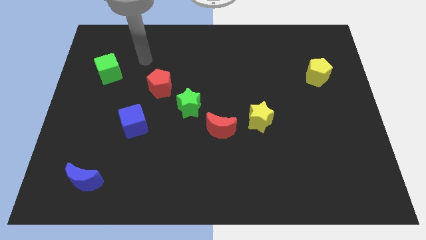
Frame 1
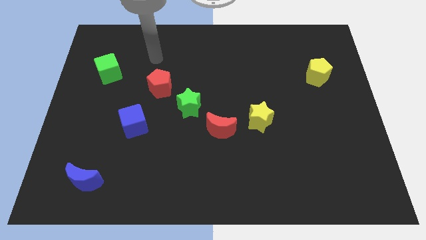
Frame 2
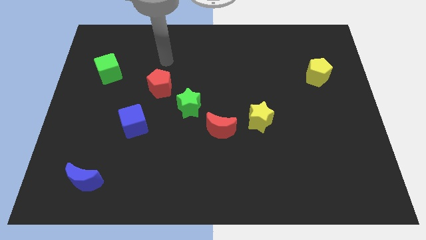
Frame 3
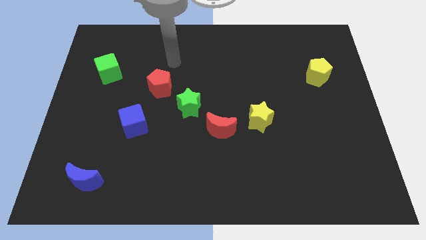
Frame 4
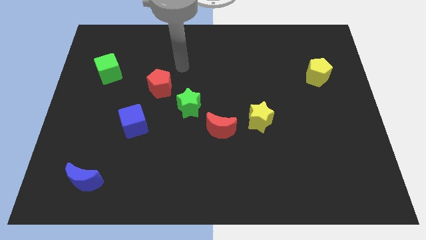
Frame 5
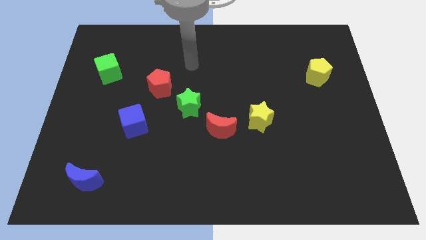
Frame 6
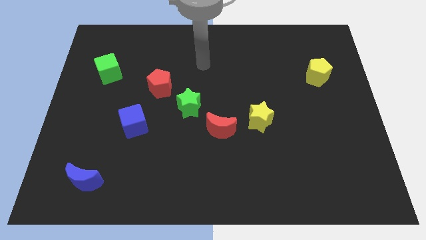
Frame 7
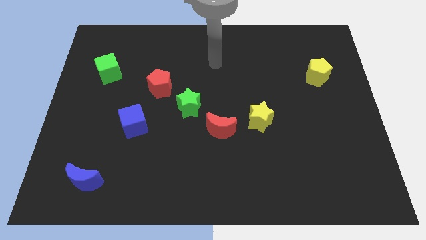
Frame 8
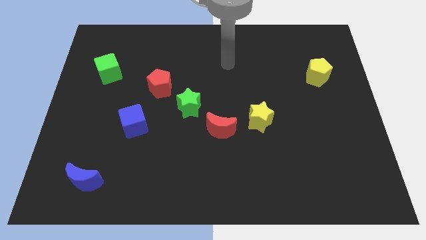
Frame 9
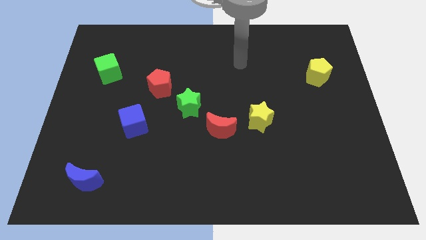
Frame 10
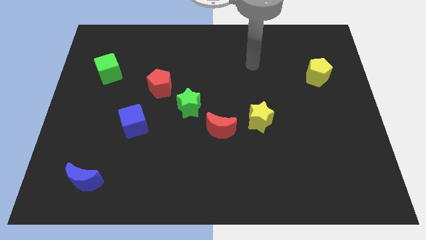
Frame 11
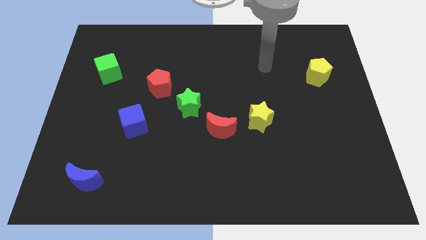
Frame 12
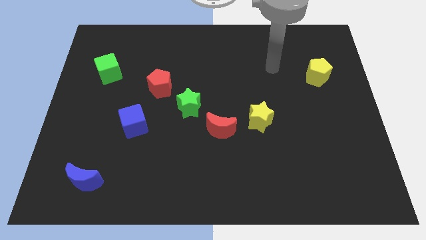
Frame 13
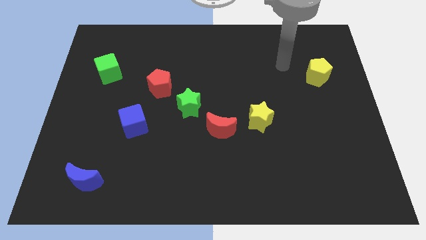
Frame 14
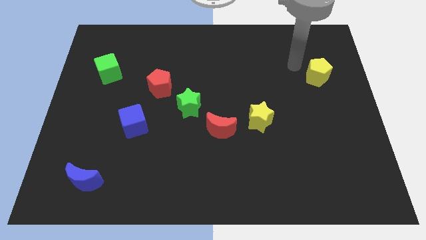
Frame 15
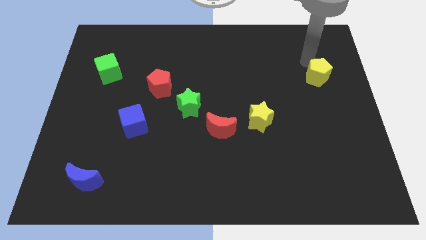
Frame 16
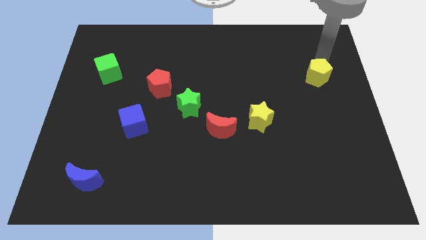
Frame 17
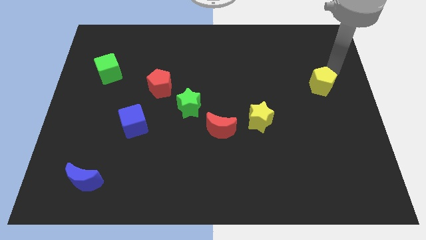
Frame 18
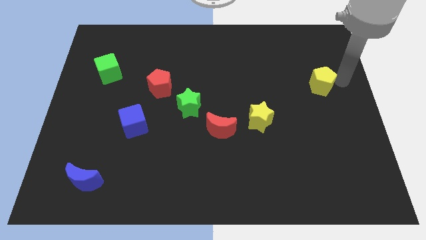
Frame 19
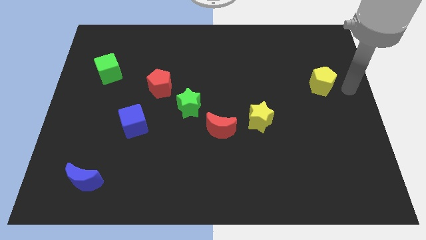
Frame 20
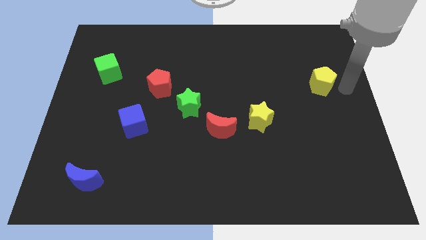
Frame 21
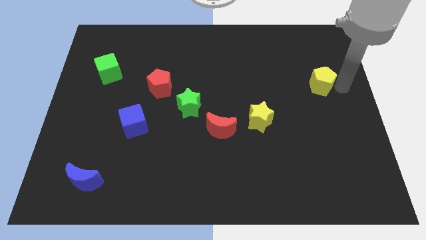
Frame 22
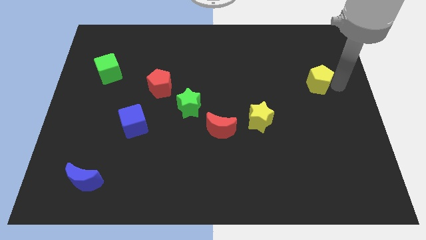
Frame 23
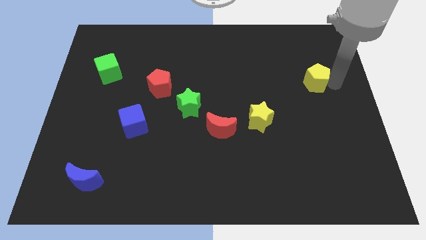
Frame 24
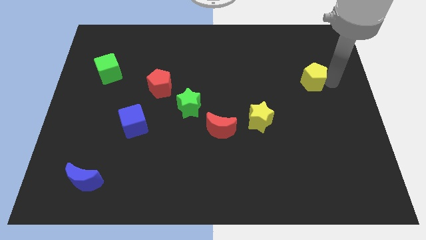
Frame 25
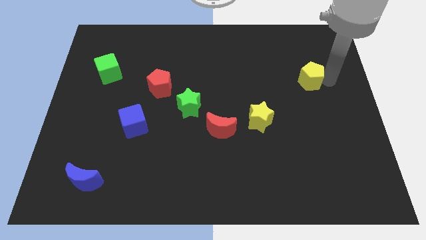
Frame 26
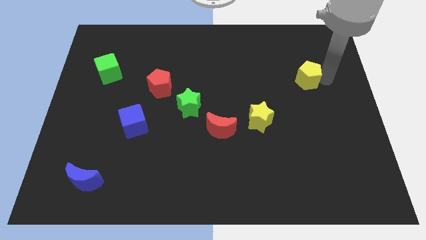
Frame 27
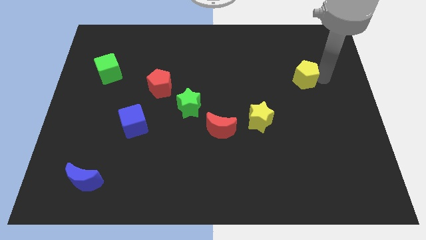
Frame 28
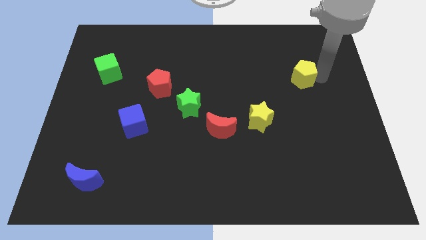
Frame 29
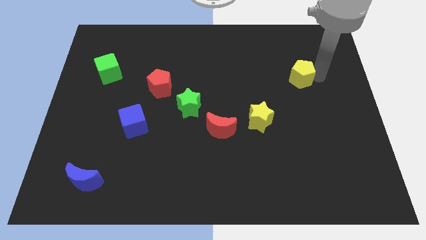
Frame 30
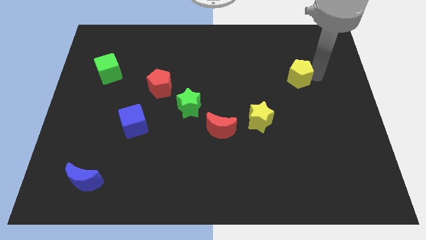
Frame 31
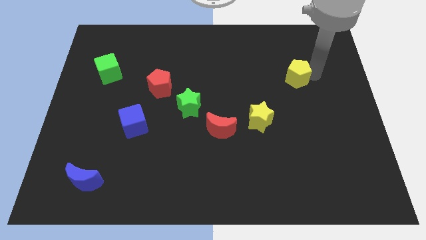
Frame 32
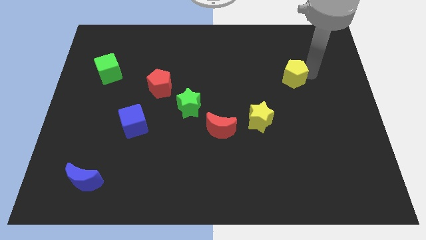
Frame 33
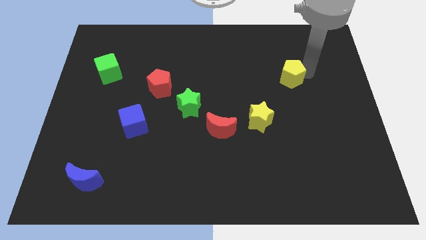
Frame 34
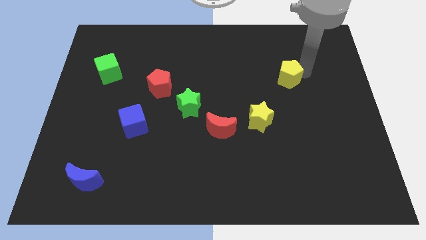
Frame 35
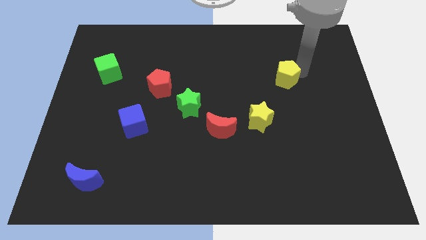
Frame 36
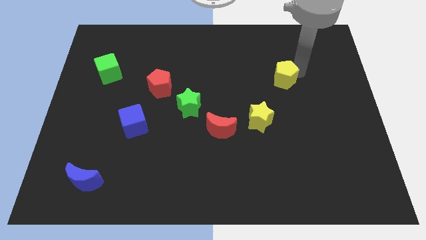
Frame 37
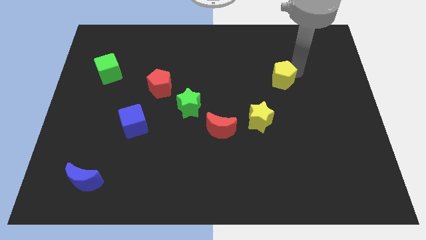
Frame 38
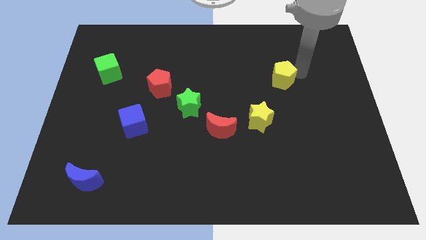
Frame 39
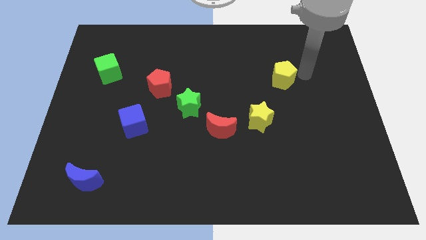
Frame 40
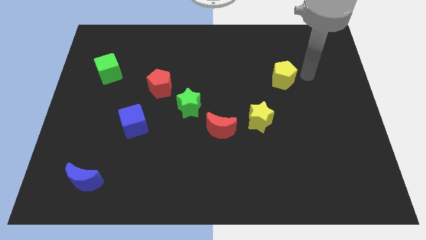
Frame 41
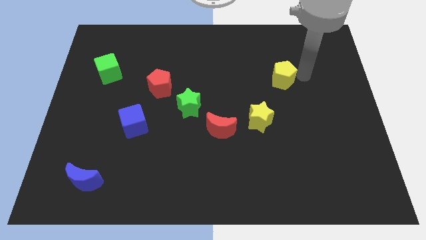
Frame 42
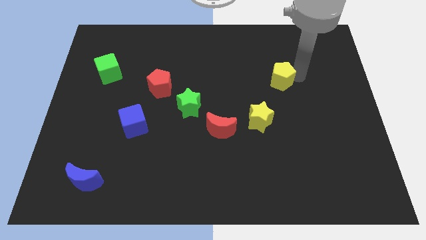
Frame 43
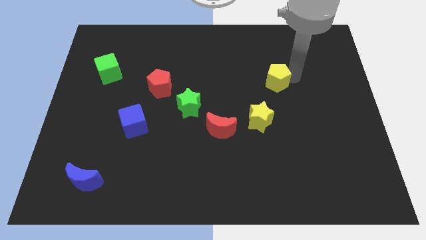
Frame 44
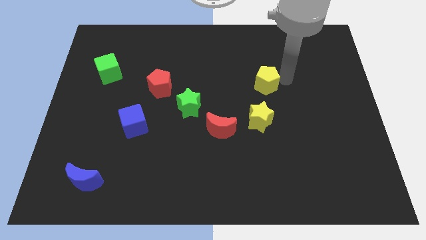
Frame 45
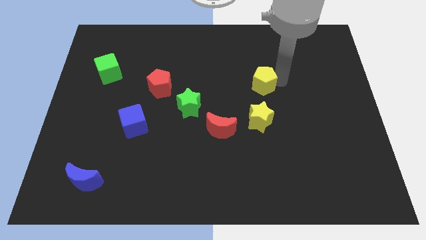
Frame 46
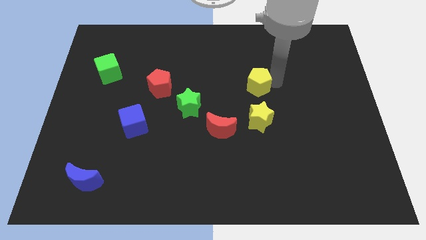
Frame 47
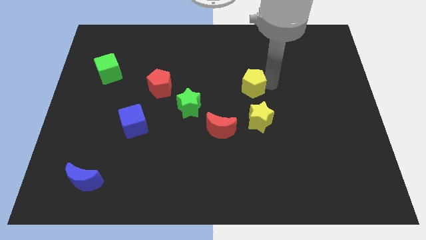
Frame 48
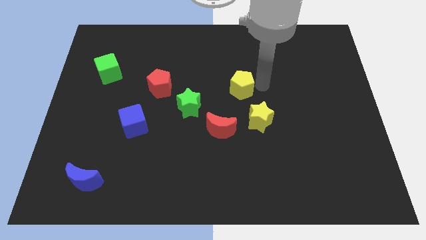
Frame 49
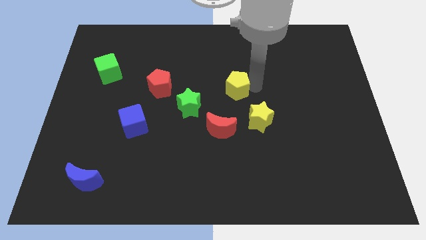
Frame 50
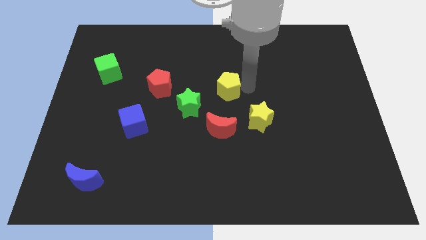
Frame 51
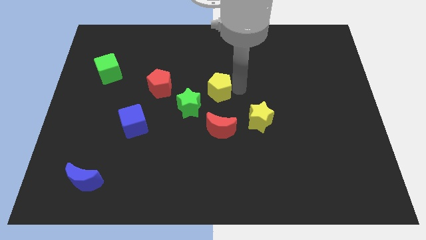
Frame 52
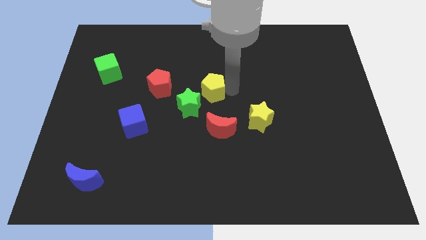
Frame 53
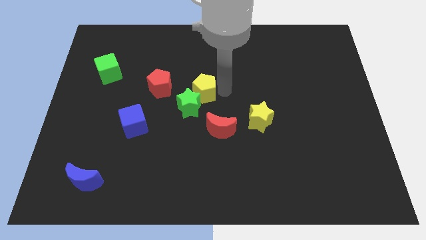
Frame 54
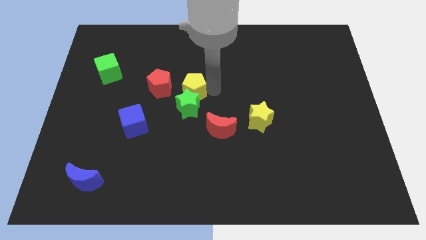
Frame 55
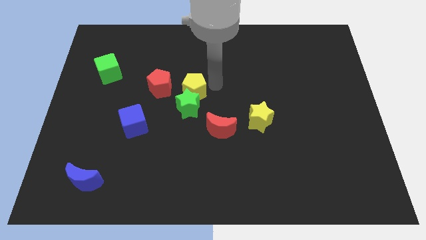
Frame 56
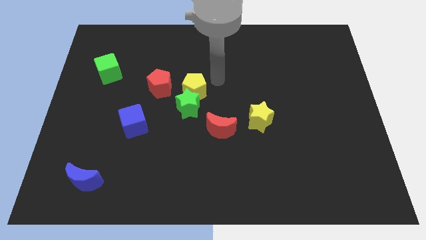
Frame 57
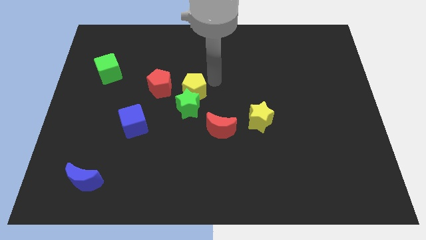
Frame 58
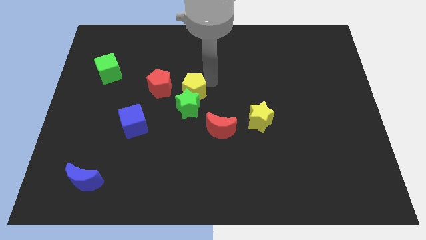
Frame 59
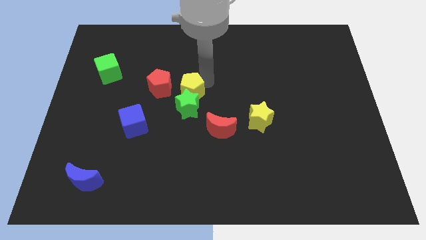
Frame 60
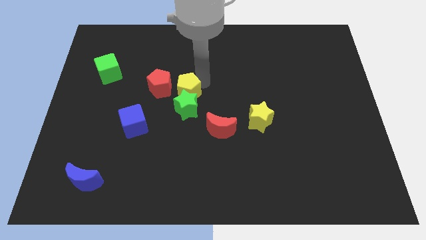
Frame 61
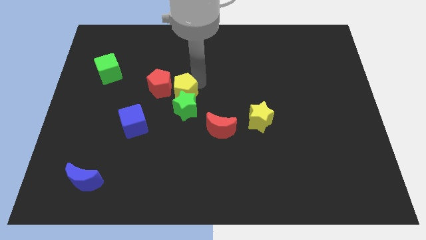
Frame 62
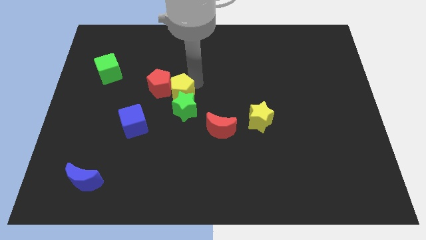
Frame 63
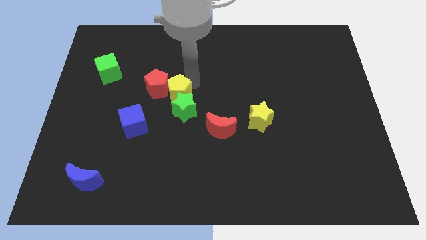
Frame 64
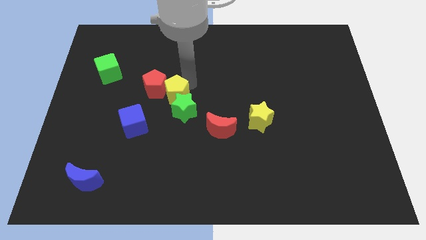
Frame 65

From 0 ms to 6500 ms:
slide the yellow pentagon to the top right side of the blue cube

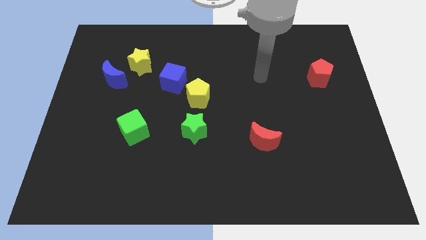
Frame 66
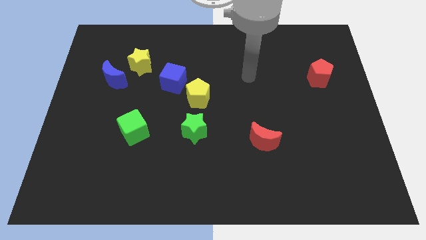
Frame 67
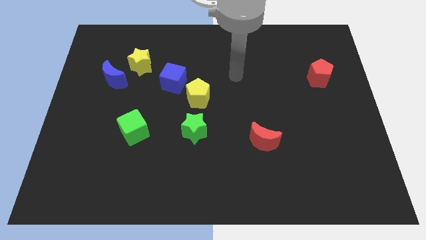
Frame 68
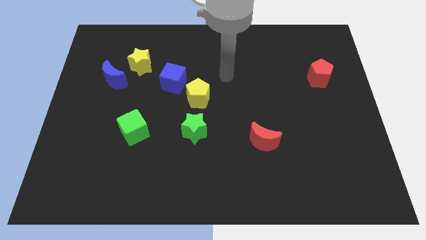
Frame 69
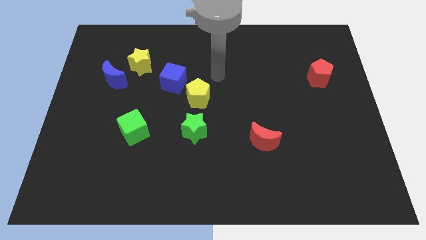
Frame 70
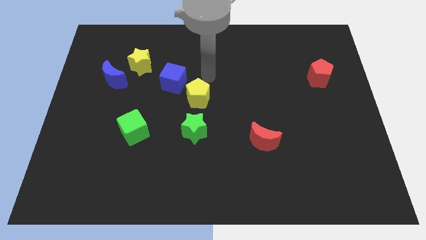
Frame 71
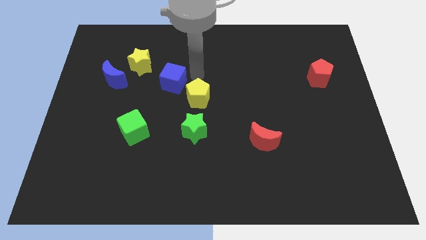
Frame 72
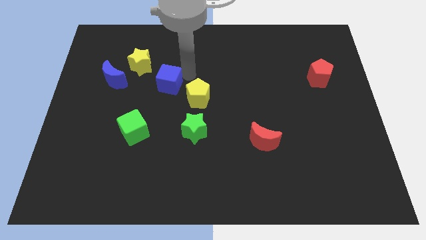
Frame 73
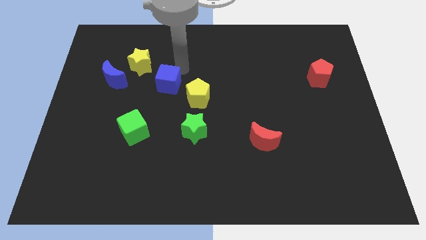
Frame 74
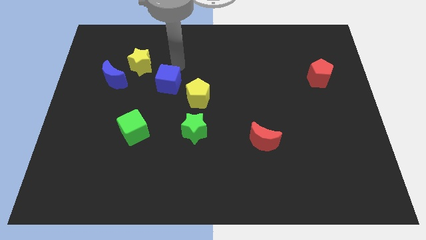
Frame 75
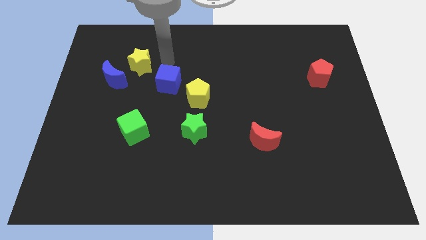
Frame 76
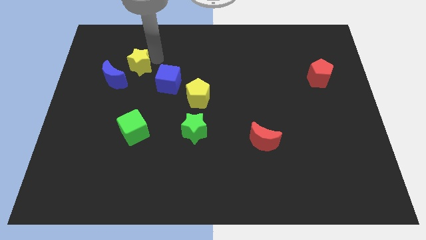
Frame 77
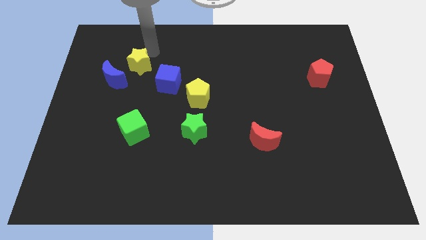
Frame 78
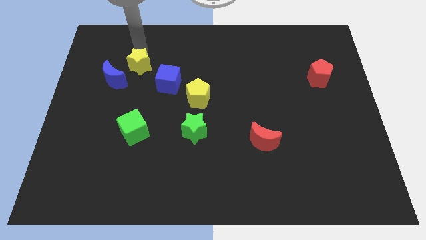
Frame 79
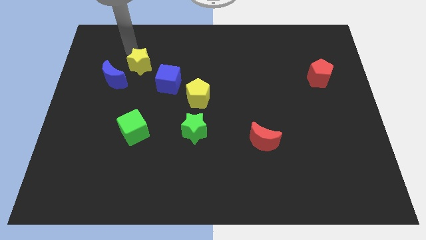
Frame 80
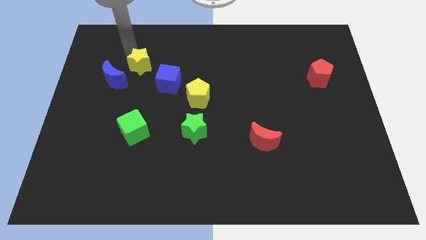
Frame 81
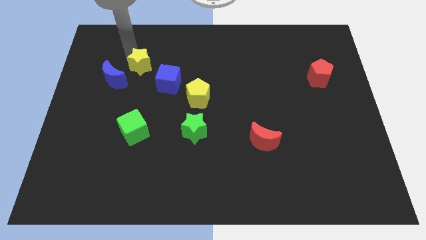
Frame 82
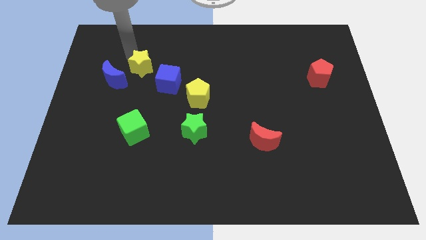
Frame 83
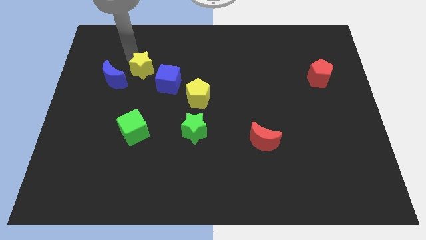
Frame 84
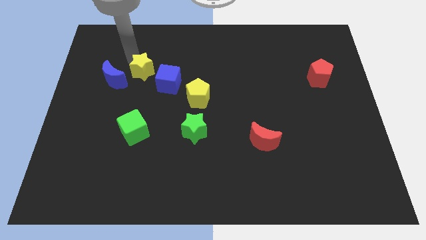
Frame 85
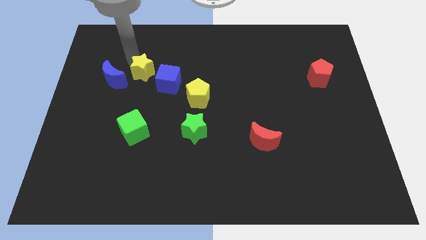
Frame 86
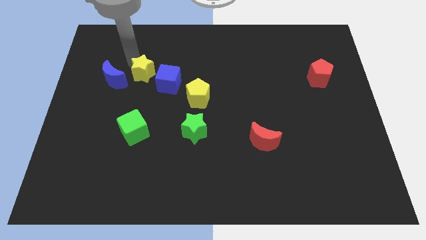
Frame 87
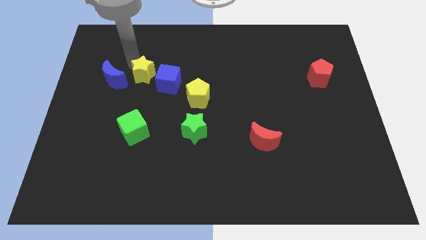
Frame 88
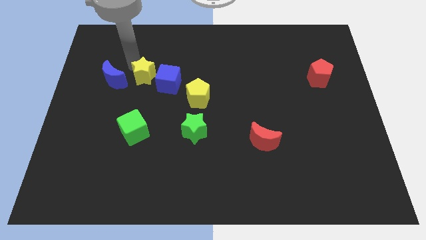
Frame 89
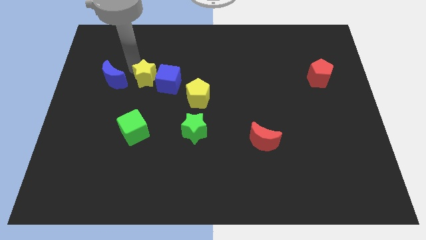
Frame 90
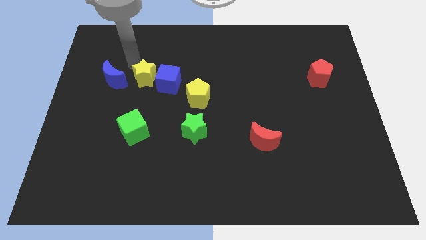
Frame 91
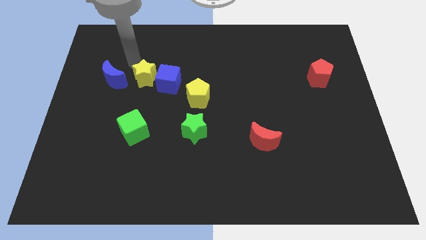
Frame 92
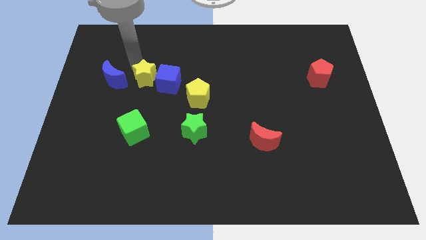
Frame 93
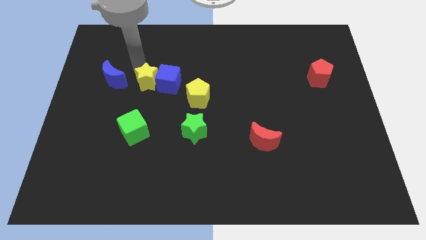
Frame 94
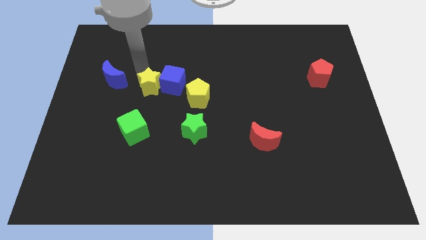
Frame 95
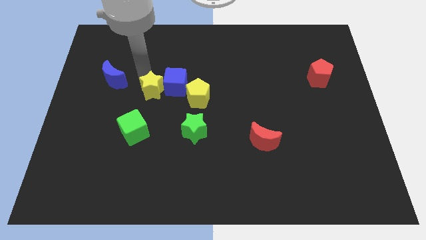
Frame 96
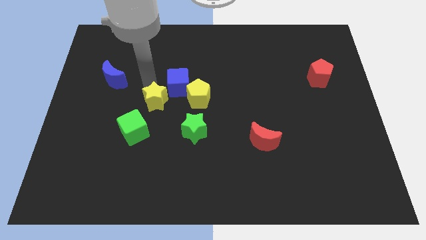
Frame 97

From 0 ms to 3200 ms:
slide the yellow star to the bottom side of the blue cube
